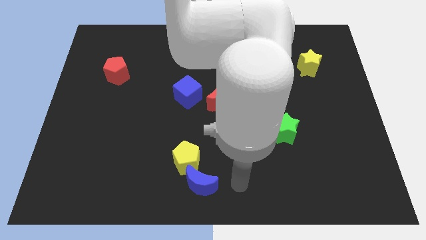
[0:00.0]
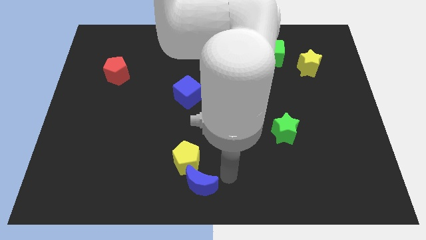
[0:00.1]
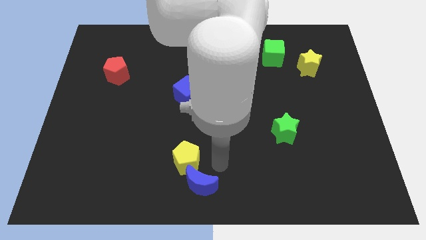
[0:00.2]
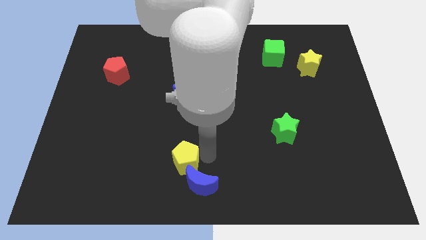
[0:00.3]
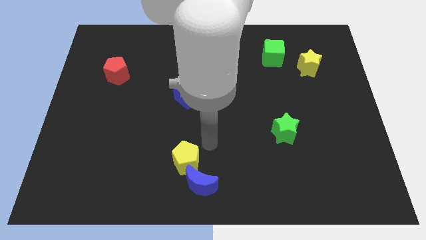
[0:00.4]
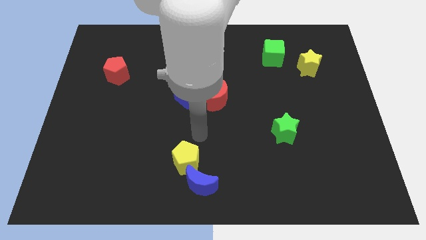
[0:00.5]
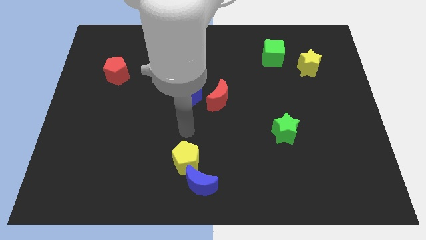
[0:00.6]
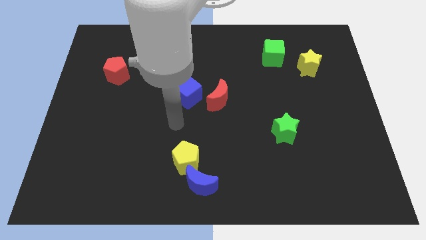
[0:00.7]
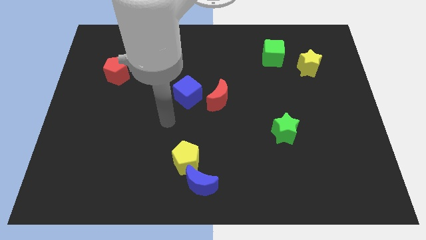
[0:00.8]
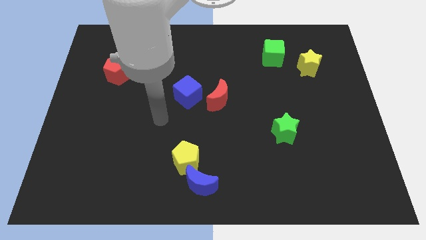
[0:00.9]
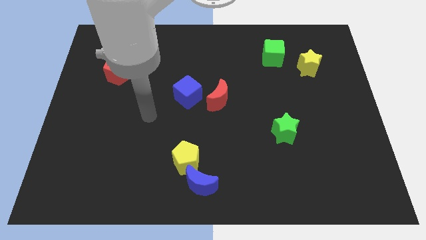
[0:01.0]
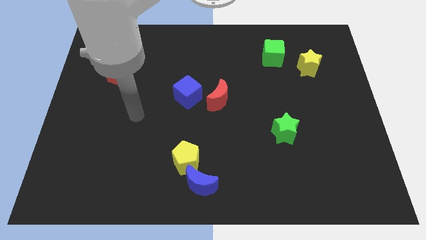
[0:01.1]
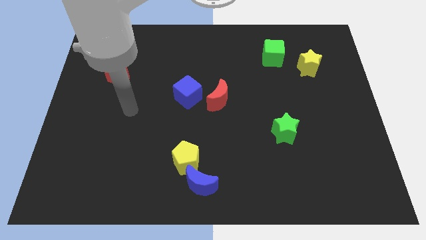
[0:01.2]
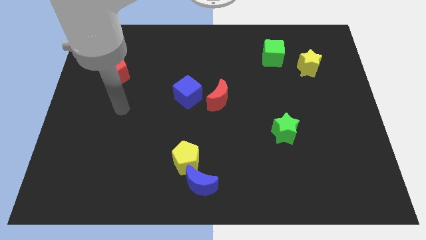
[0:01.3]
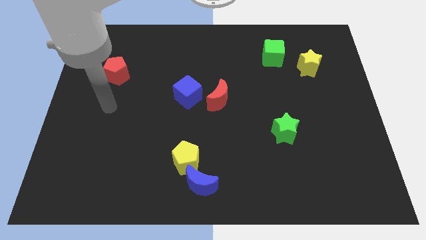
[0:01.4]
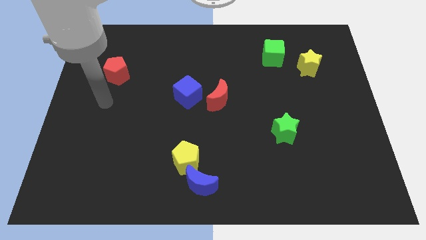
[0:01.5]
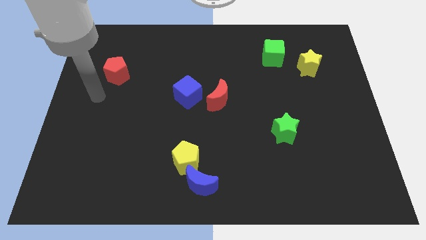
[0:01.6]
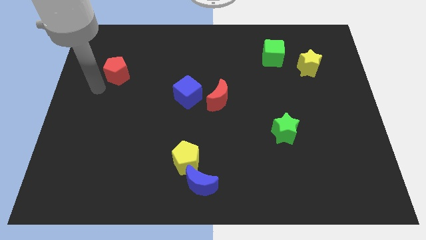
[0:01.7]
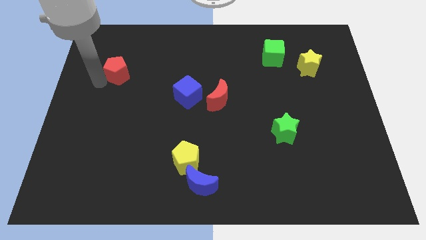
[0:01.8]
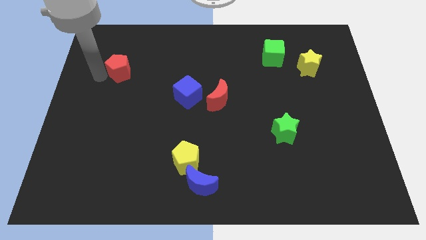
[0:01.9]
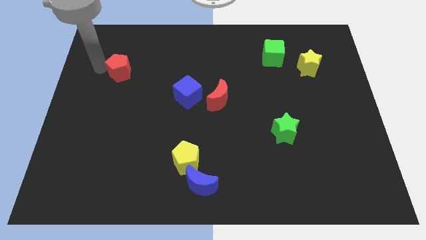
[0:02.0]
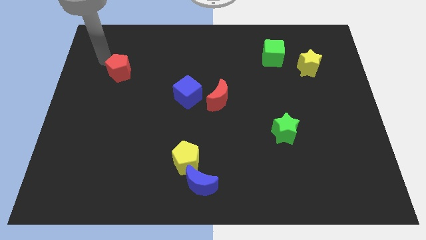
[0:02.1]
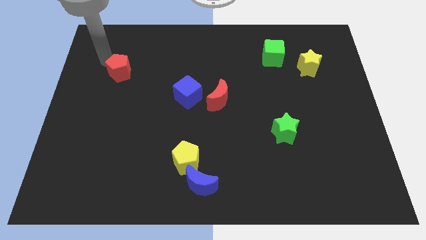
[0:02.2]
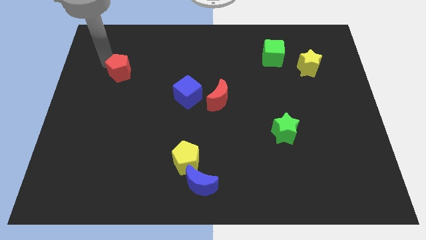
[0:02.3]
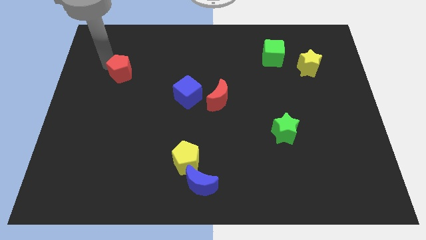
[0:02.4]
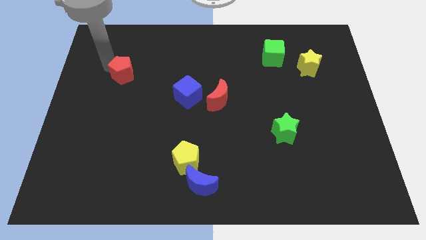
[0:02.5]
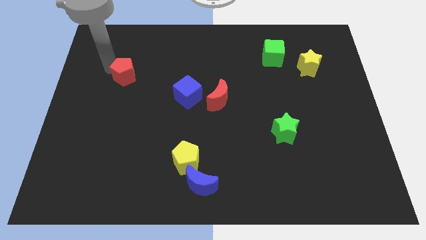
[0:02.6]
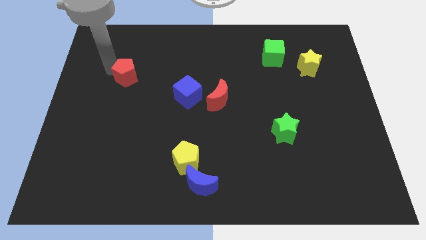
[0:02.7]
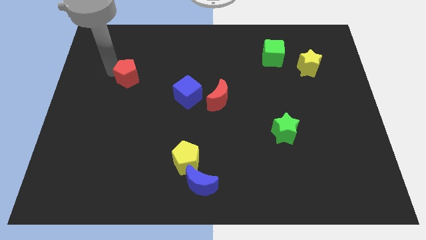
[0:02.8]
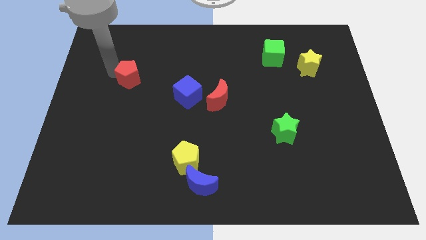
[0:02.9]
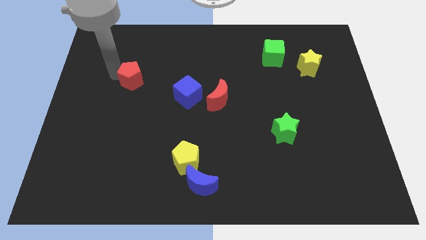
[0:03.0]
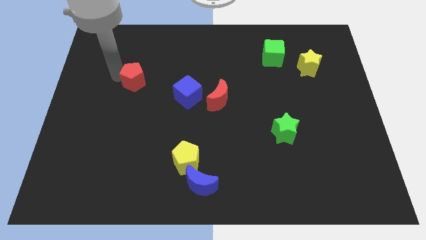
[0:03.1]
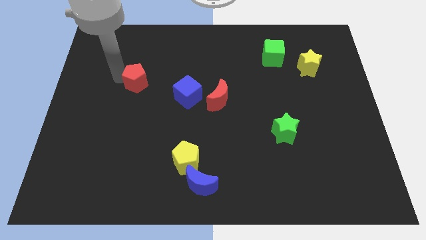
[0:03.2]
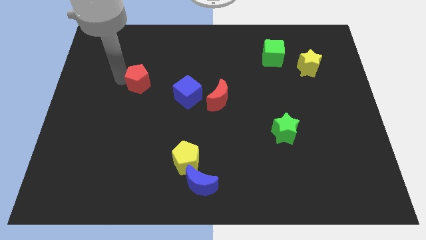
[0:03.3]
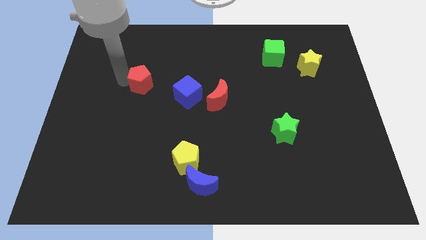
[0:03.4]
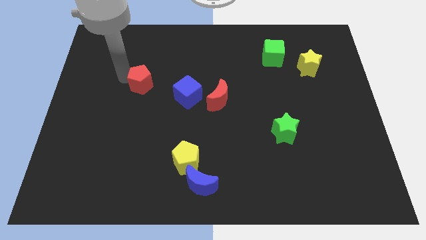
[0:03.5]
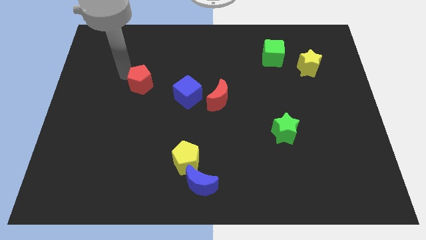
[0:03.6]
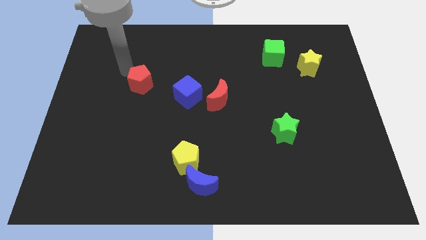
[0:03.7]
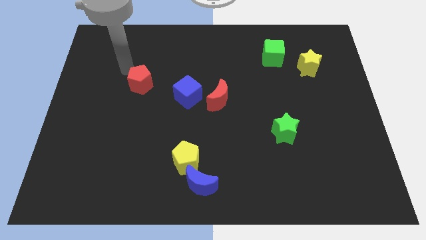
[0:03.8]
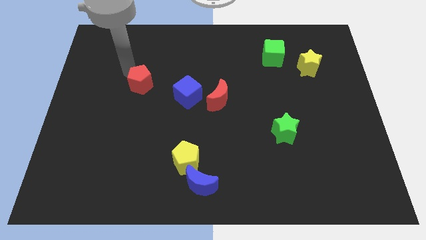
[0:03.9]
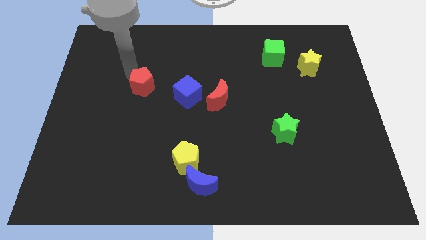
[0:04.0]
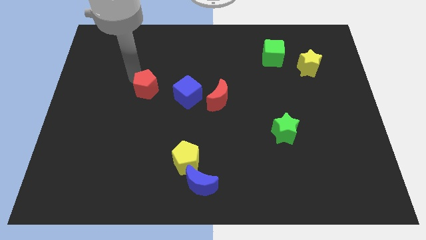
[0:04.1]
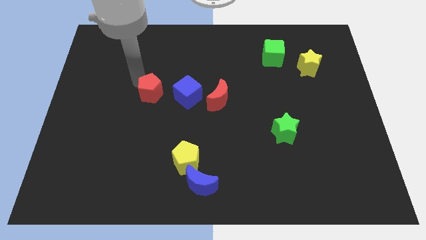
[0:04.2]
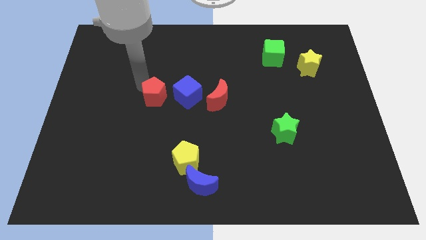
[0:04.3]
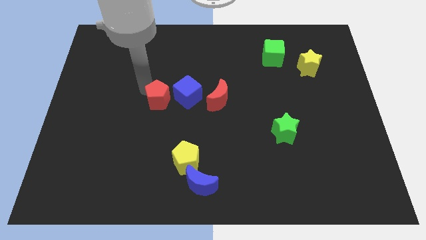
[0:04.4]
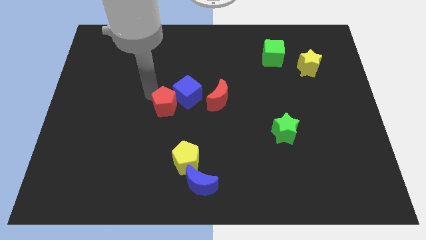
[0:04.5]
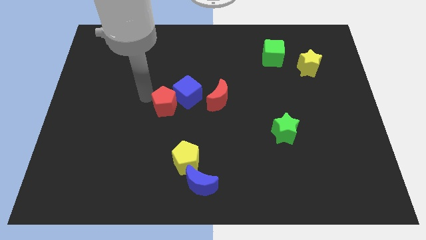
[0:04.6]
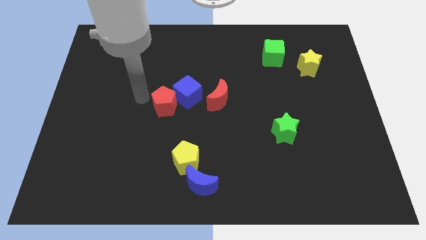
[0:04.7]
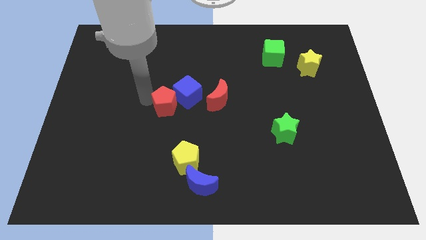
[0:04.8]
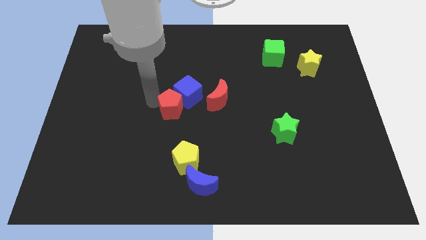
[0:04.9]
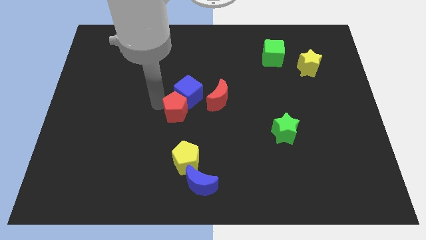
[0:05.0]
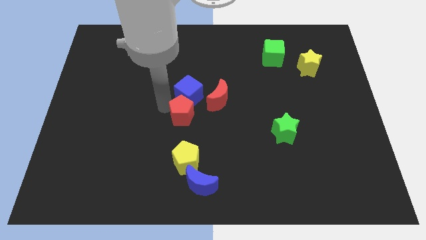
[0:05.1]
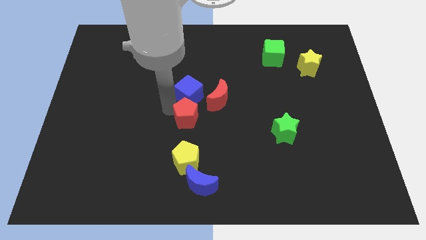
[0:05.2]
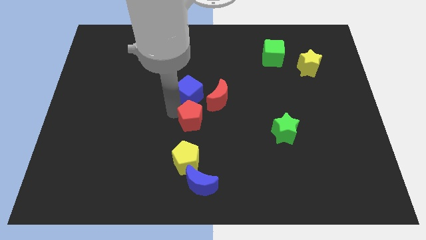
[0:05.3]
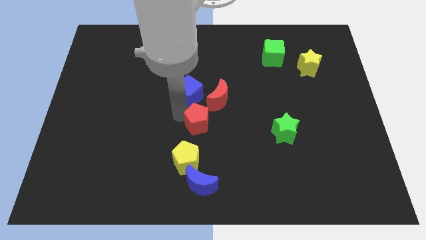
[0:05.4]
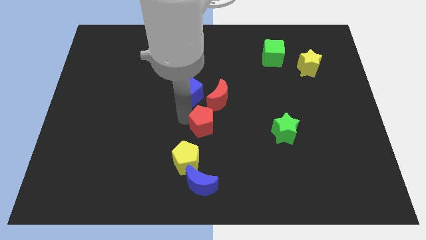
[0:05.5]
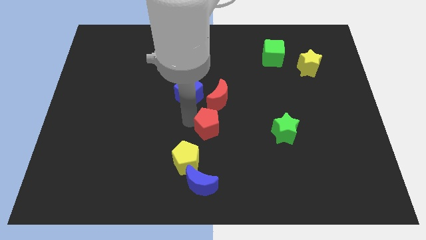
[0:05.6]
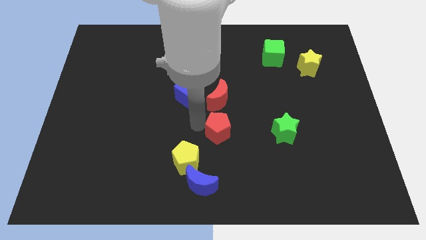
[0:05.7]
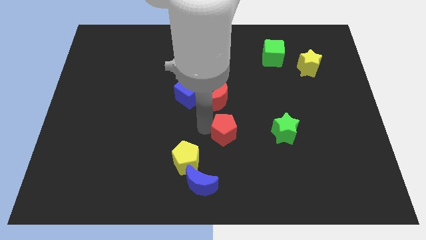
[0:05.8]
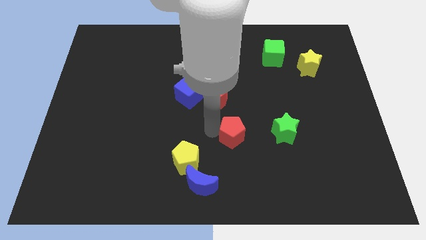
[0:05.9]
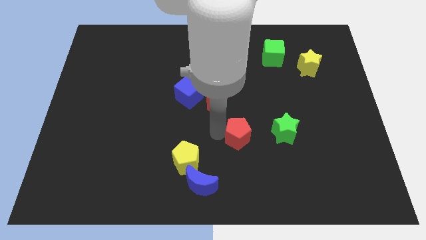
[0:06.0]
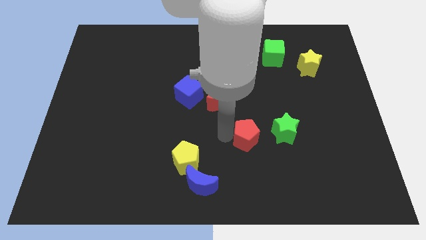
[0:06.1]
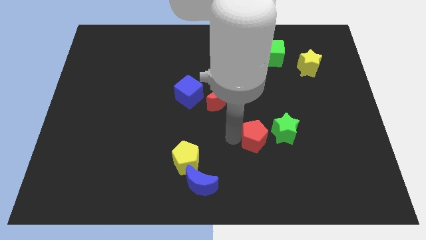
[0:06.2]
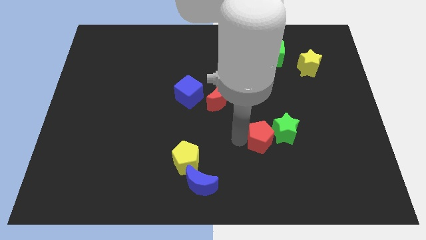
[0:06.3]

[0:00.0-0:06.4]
put the red pentagon close to the green star
